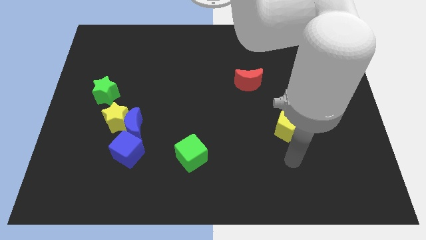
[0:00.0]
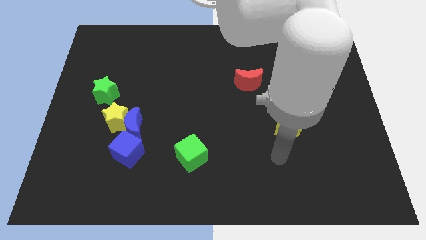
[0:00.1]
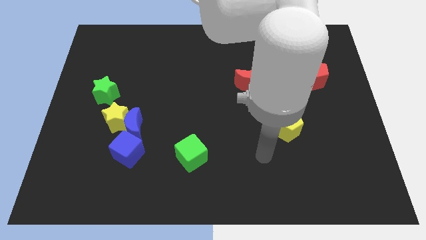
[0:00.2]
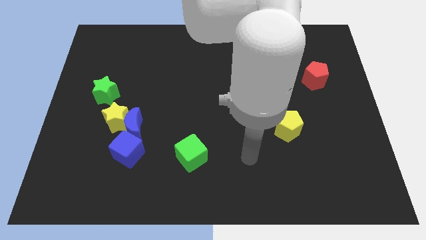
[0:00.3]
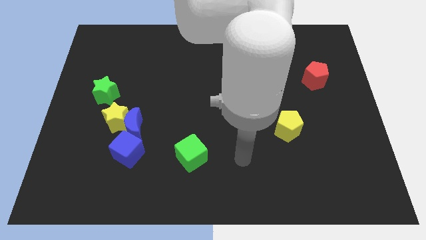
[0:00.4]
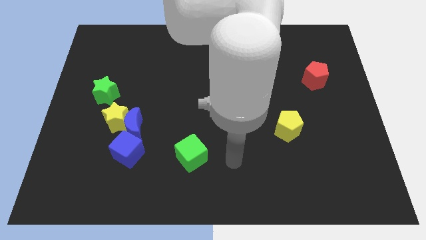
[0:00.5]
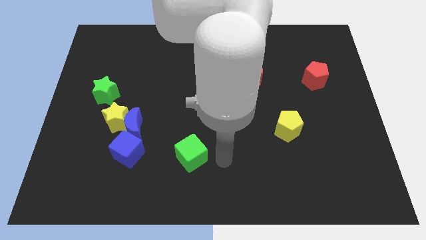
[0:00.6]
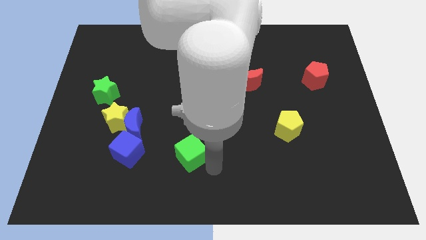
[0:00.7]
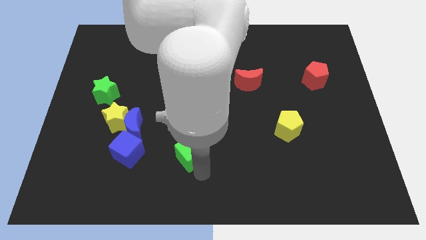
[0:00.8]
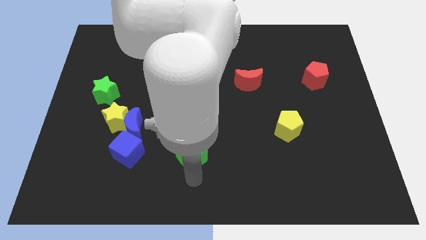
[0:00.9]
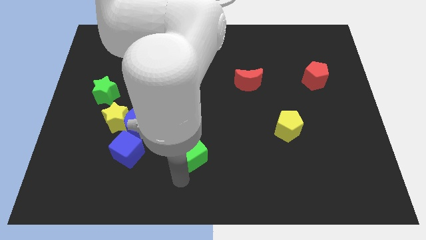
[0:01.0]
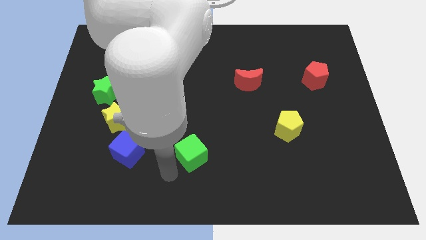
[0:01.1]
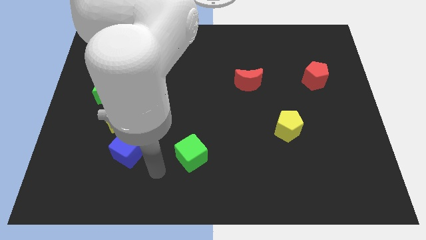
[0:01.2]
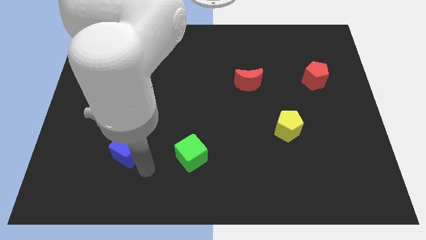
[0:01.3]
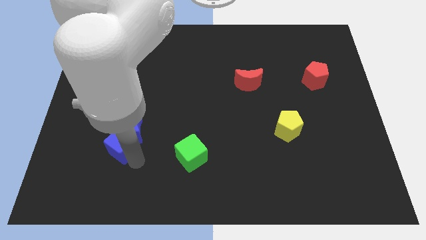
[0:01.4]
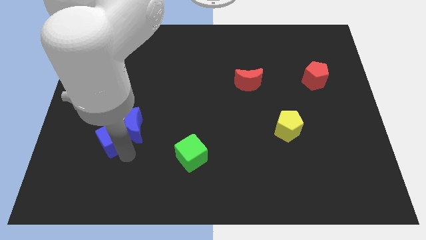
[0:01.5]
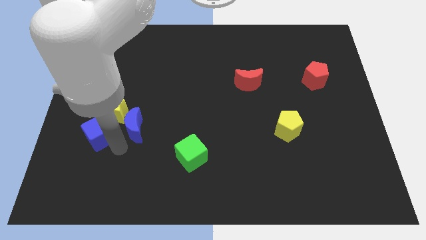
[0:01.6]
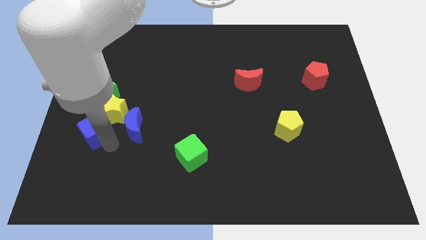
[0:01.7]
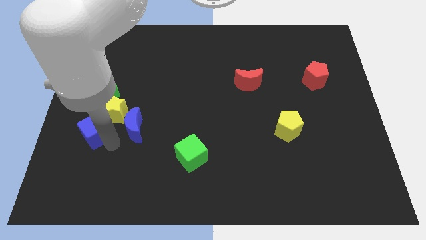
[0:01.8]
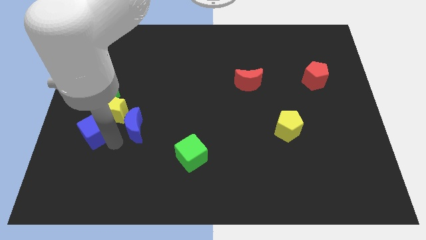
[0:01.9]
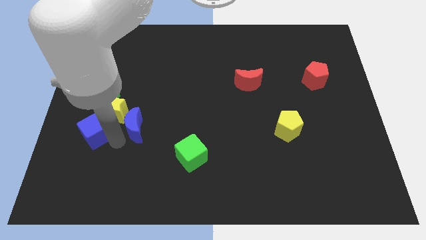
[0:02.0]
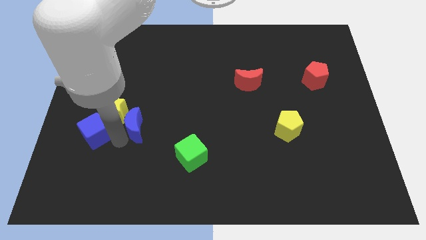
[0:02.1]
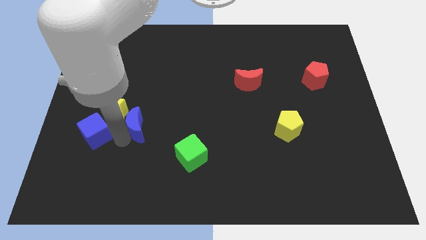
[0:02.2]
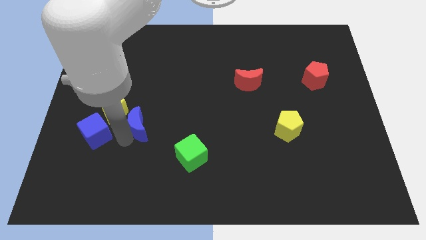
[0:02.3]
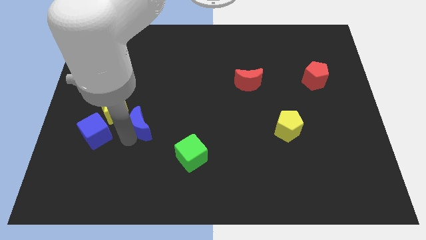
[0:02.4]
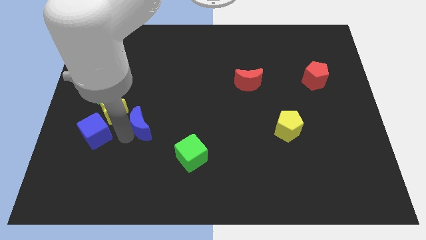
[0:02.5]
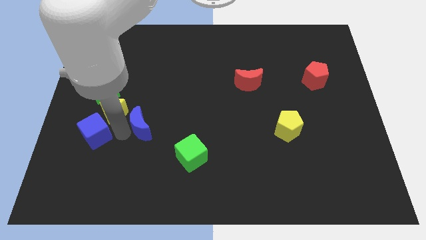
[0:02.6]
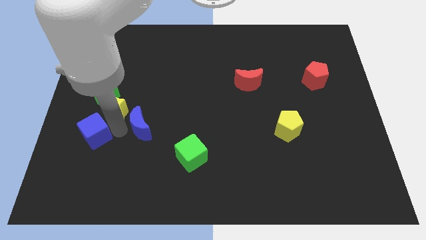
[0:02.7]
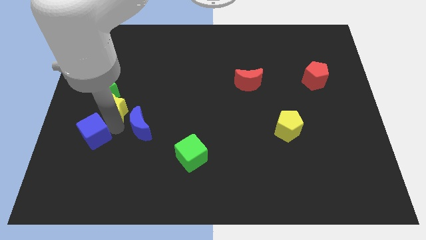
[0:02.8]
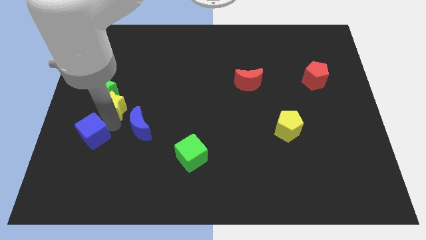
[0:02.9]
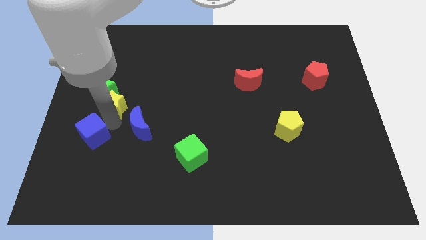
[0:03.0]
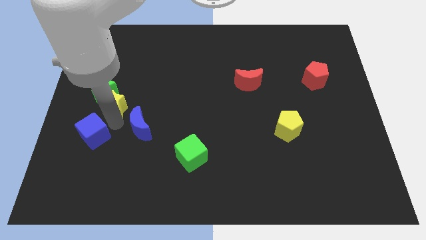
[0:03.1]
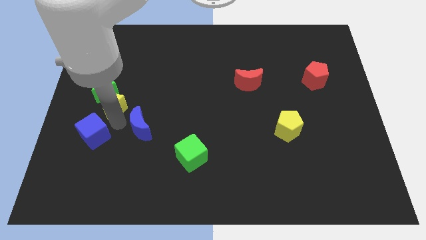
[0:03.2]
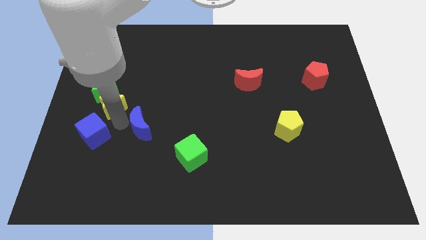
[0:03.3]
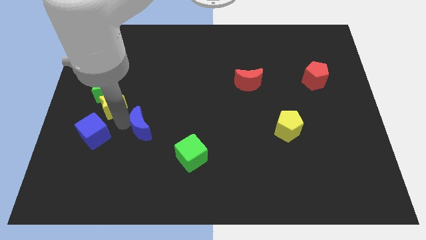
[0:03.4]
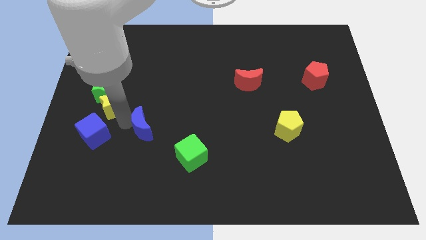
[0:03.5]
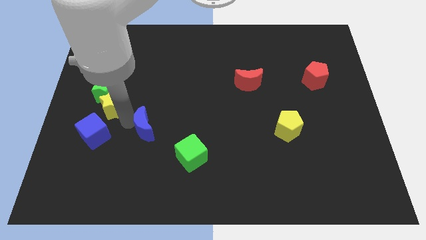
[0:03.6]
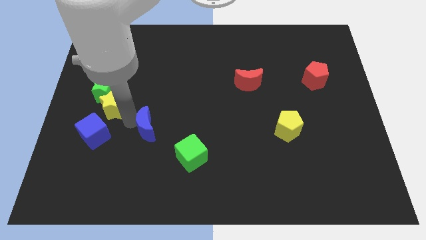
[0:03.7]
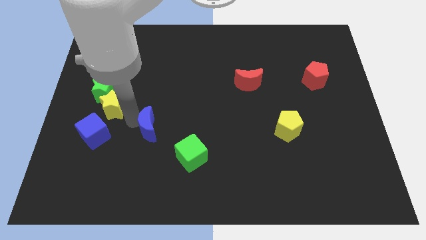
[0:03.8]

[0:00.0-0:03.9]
pull the blue moon apart from the yellow star and blue cube

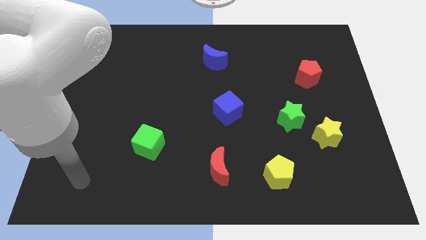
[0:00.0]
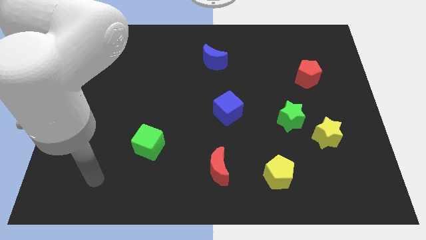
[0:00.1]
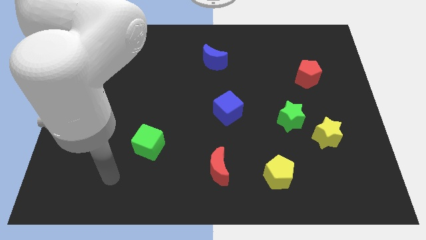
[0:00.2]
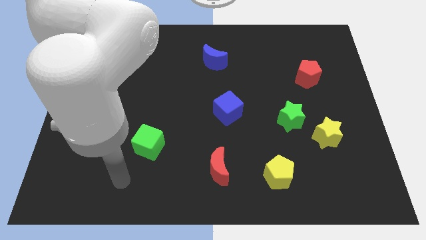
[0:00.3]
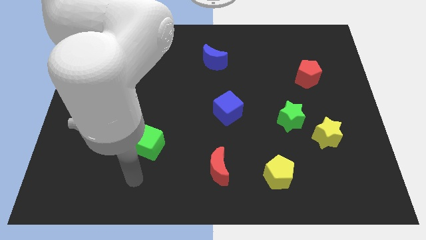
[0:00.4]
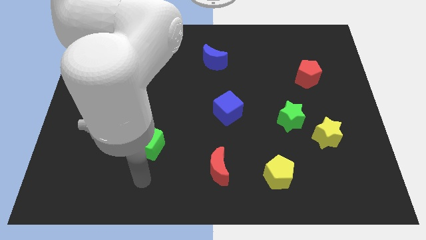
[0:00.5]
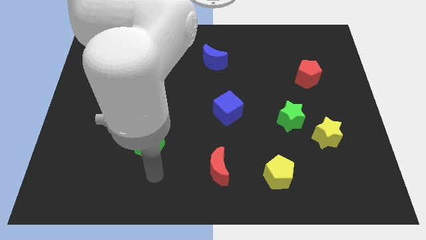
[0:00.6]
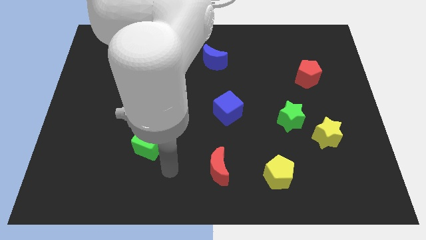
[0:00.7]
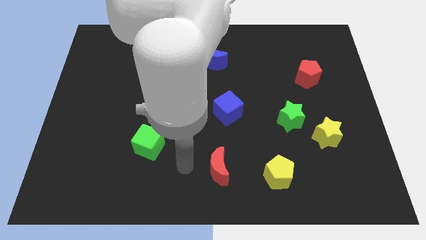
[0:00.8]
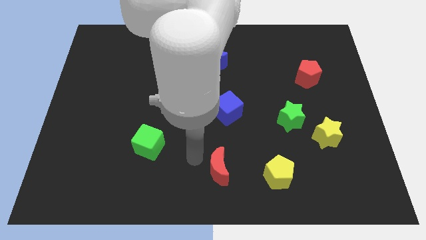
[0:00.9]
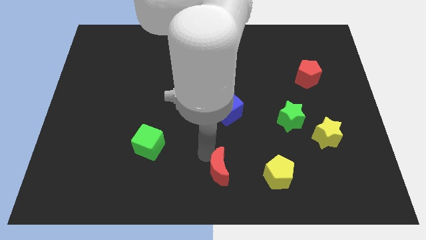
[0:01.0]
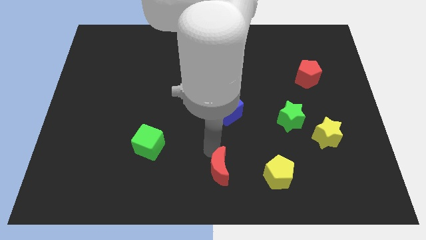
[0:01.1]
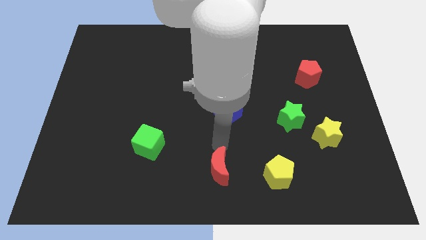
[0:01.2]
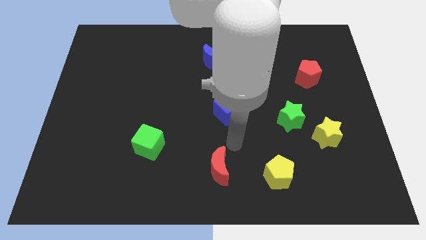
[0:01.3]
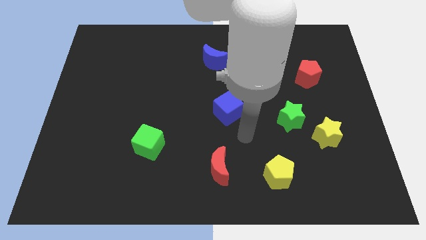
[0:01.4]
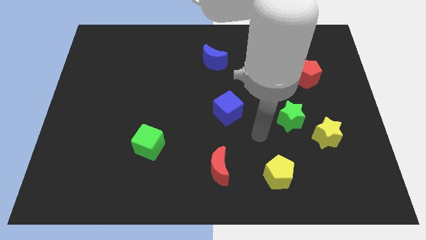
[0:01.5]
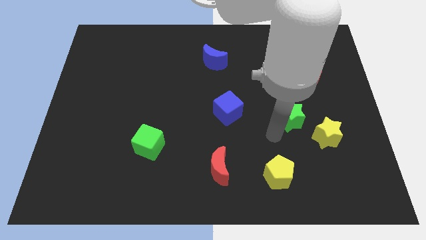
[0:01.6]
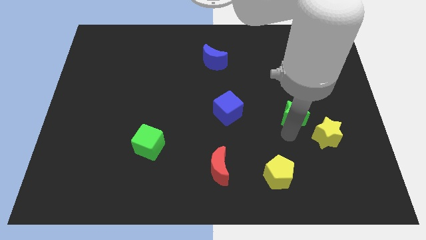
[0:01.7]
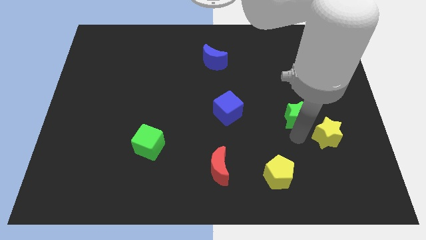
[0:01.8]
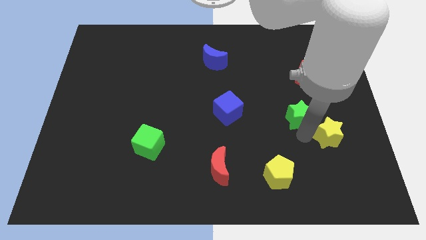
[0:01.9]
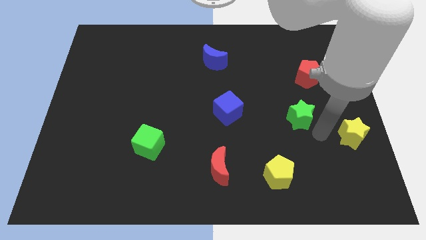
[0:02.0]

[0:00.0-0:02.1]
separate the green star from the yellow star

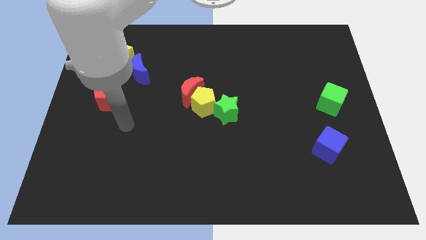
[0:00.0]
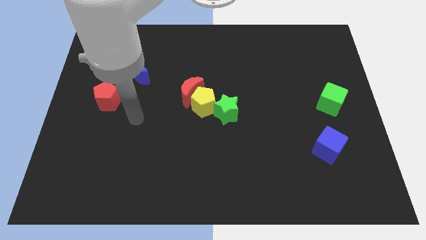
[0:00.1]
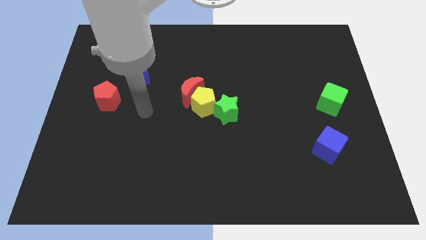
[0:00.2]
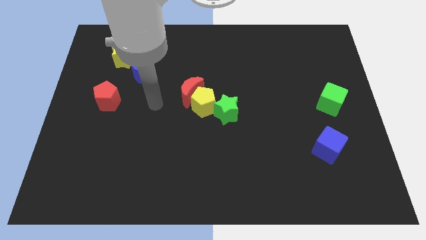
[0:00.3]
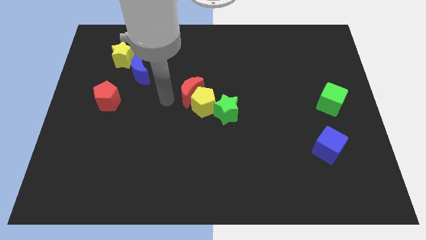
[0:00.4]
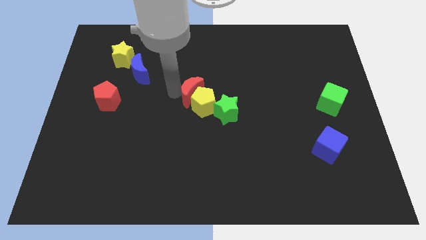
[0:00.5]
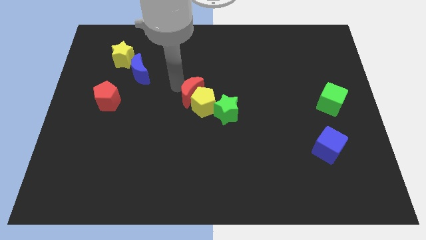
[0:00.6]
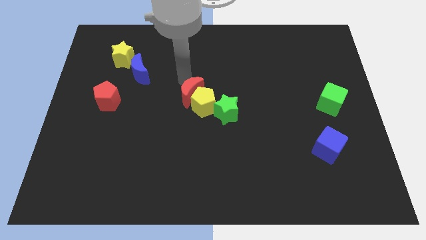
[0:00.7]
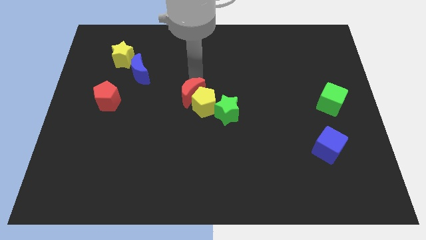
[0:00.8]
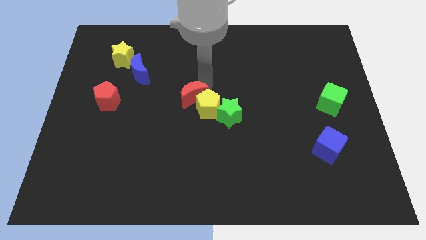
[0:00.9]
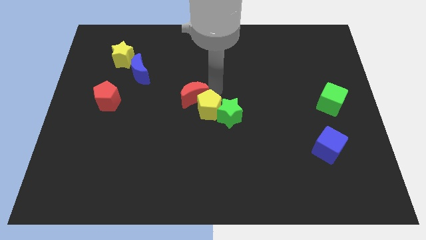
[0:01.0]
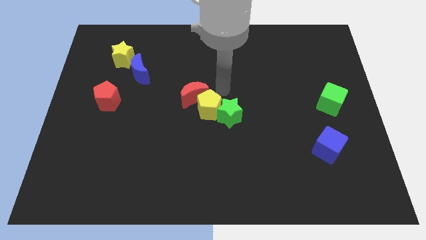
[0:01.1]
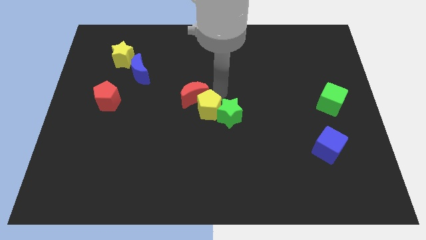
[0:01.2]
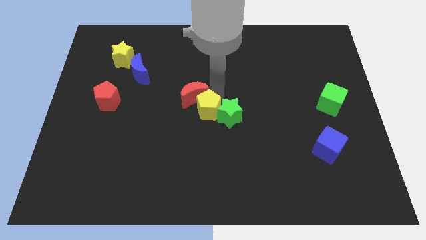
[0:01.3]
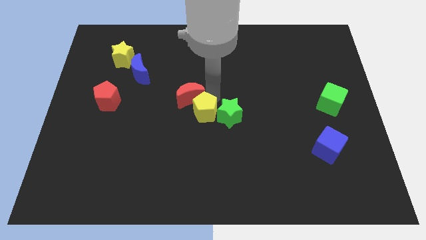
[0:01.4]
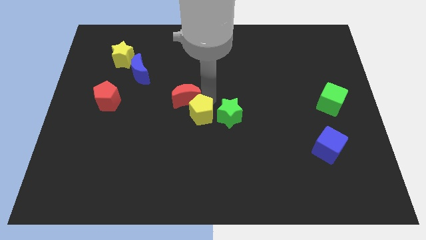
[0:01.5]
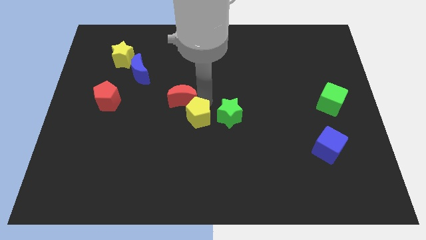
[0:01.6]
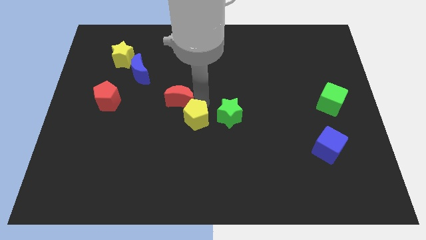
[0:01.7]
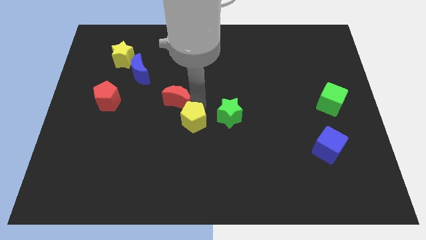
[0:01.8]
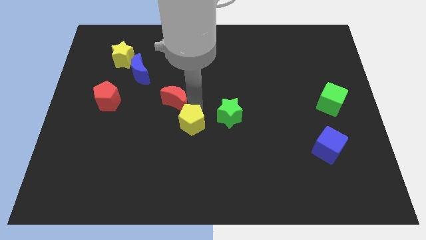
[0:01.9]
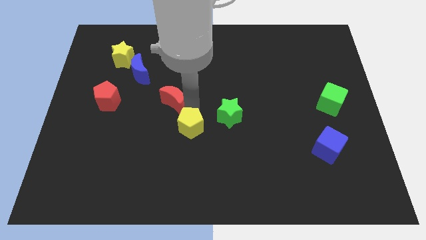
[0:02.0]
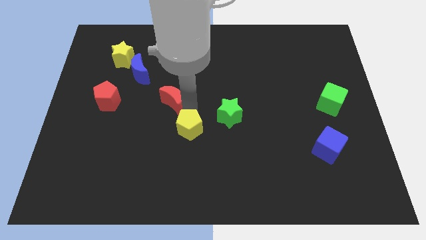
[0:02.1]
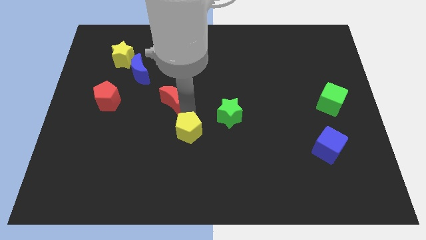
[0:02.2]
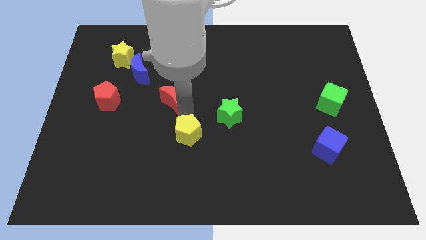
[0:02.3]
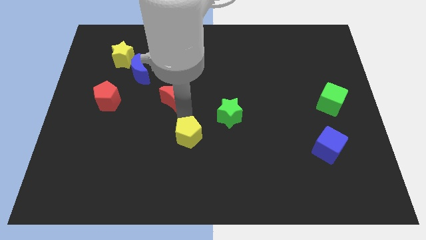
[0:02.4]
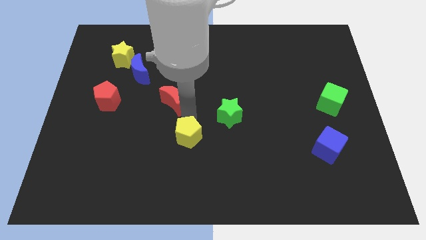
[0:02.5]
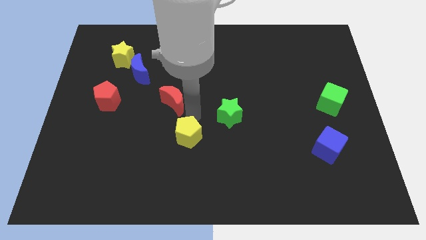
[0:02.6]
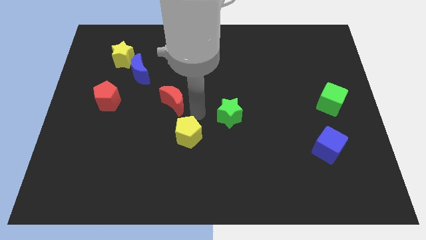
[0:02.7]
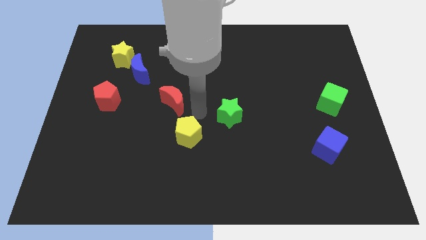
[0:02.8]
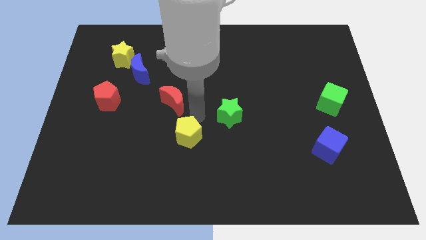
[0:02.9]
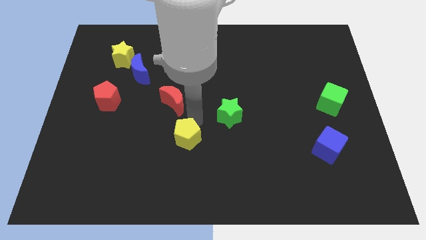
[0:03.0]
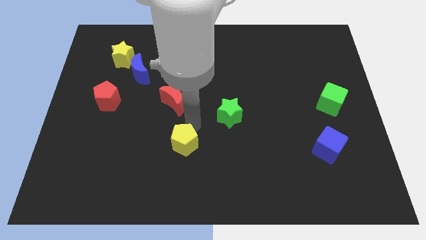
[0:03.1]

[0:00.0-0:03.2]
pull the yellow pentagon apart from the red moon and green star
